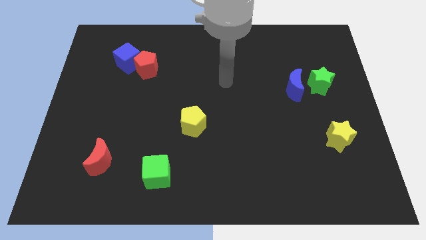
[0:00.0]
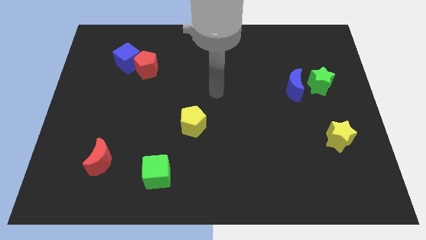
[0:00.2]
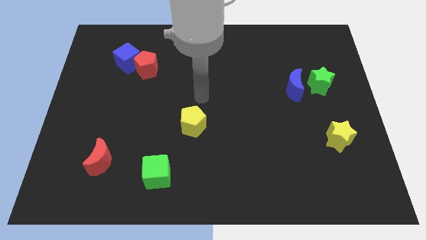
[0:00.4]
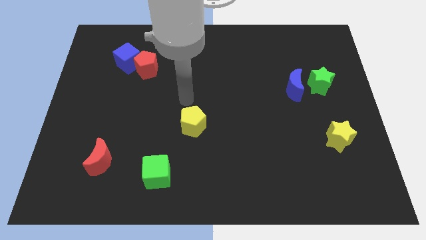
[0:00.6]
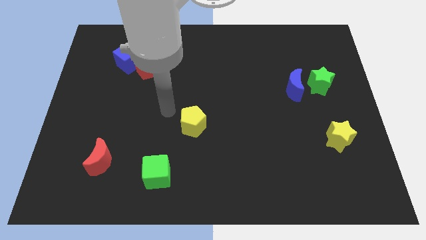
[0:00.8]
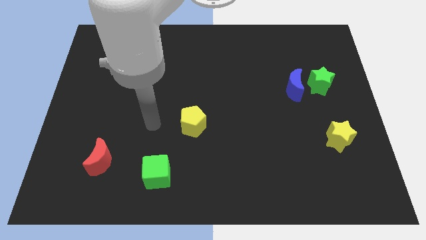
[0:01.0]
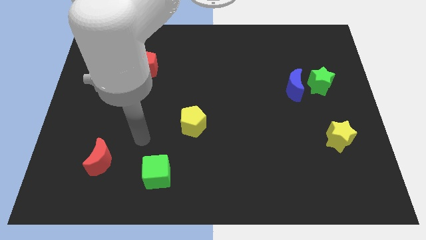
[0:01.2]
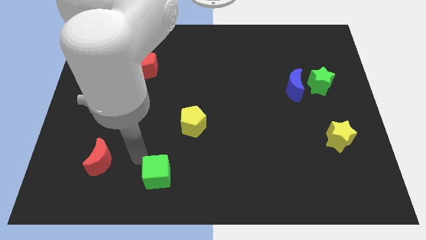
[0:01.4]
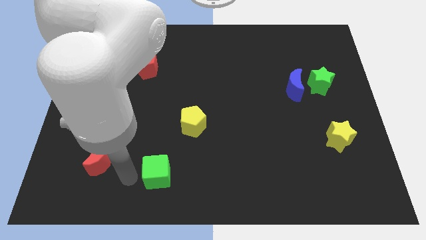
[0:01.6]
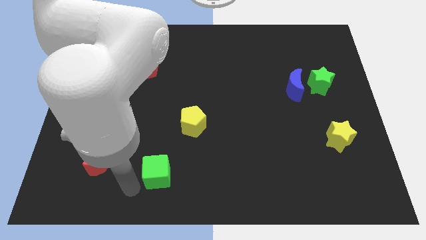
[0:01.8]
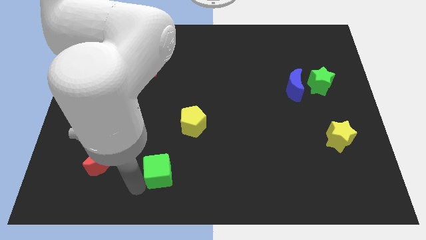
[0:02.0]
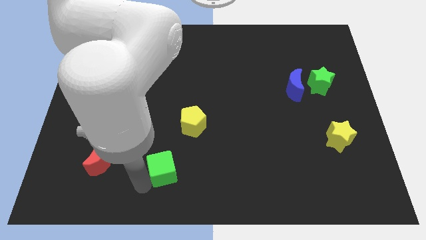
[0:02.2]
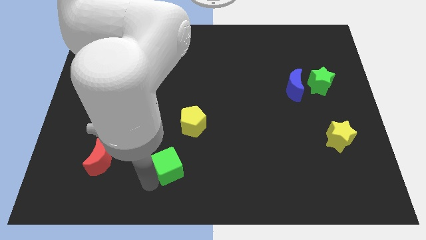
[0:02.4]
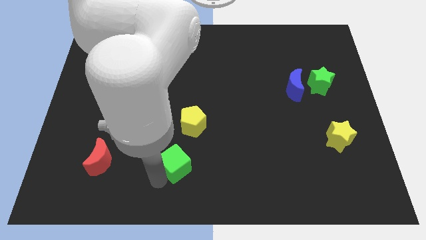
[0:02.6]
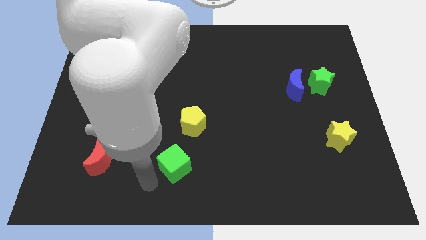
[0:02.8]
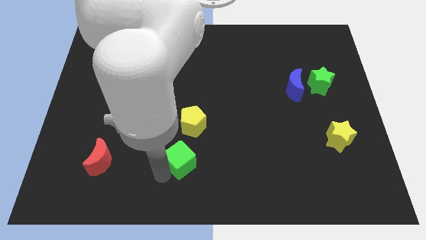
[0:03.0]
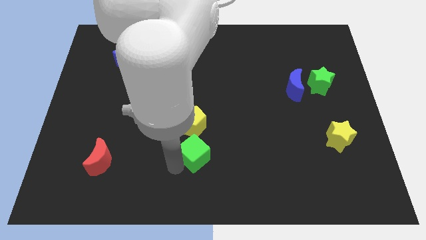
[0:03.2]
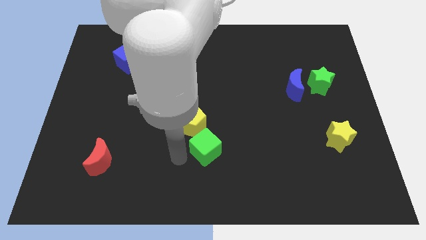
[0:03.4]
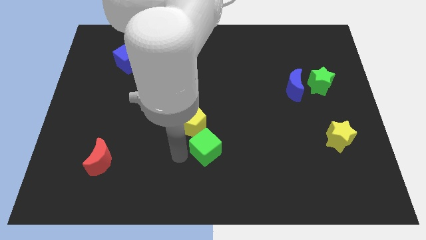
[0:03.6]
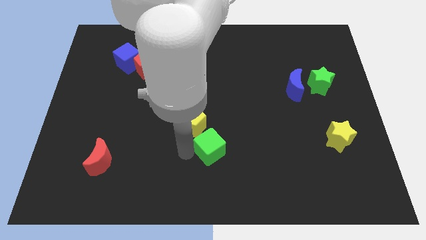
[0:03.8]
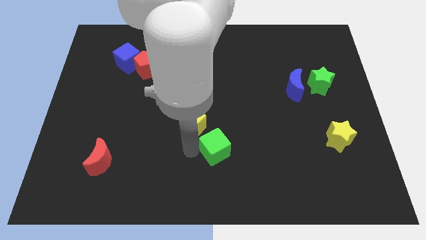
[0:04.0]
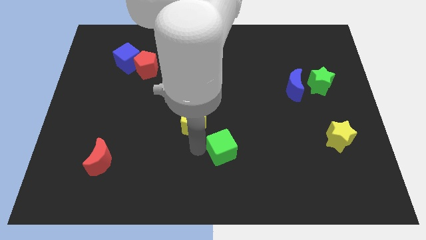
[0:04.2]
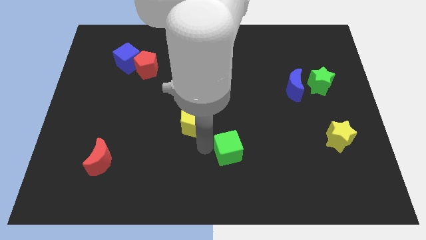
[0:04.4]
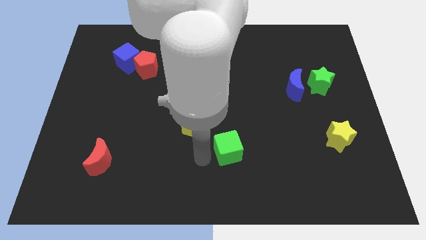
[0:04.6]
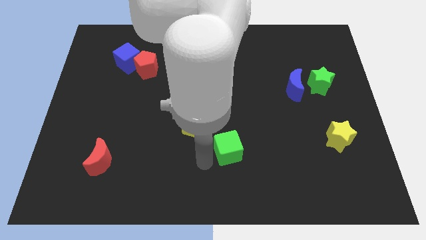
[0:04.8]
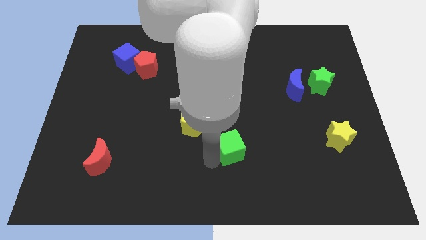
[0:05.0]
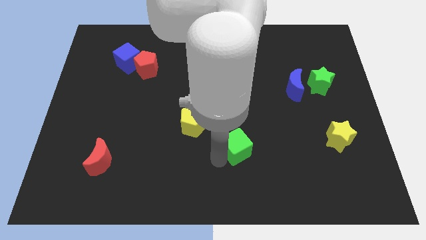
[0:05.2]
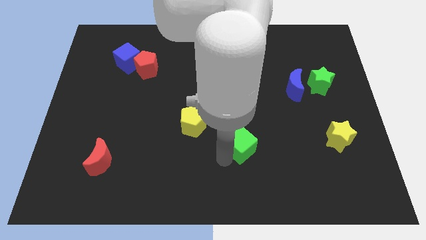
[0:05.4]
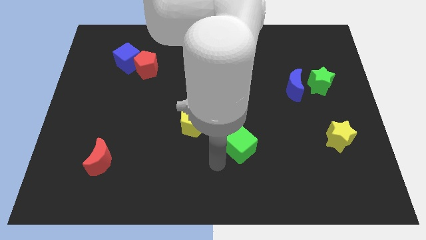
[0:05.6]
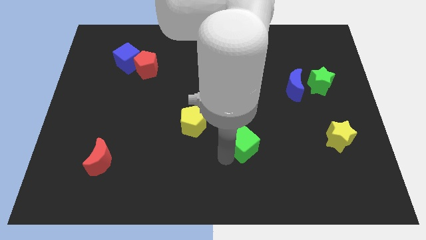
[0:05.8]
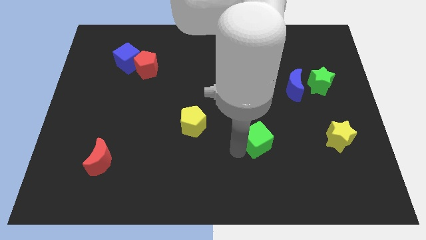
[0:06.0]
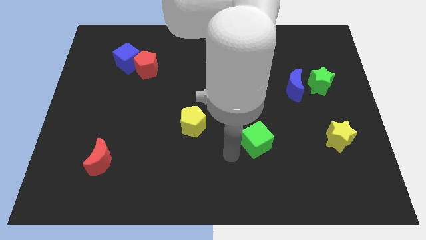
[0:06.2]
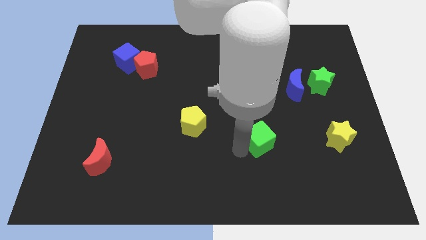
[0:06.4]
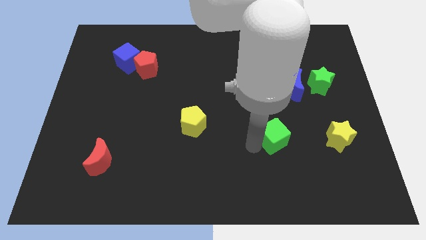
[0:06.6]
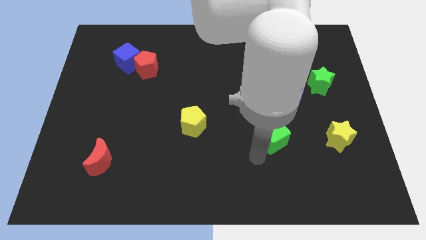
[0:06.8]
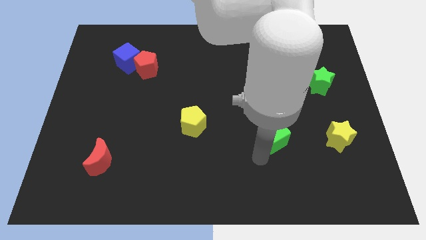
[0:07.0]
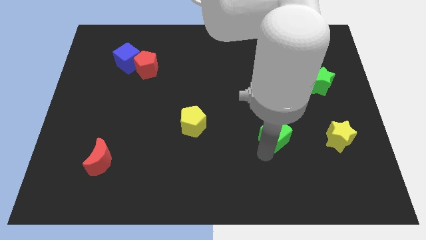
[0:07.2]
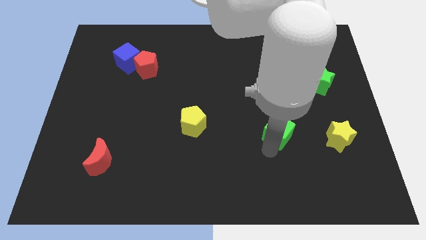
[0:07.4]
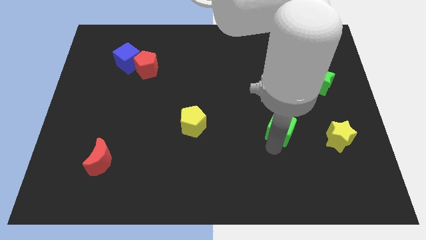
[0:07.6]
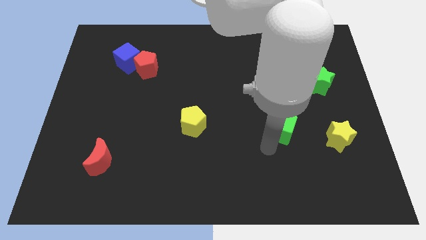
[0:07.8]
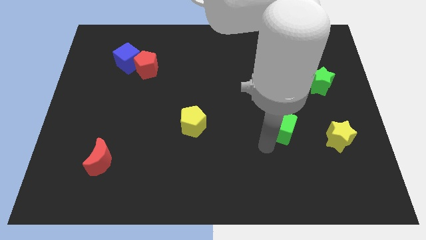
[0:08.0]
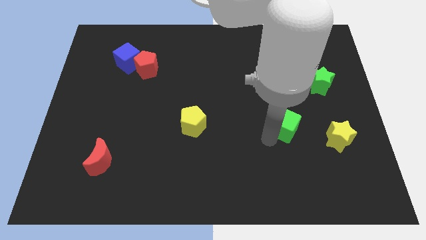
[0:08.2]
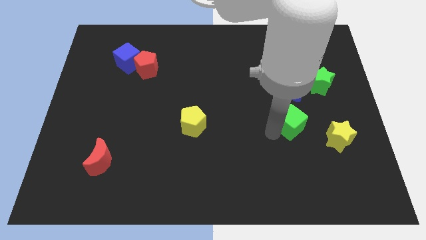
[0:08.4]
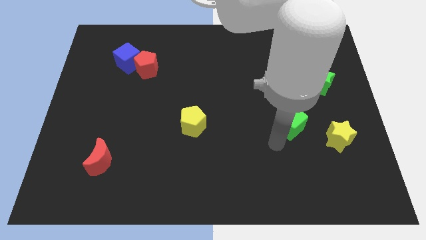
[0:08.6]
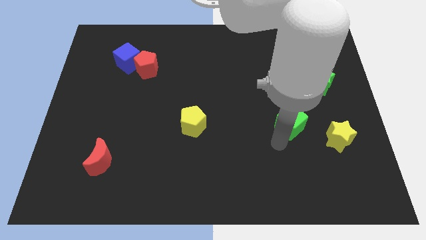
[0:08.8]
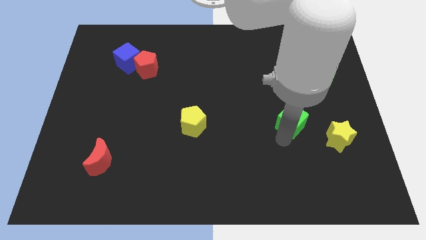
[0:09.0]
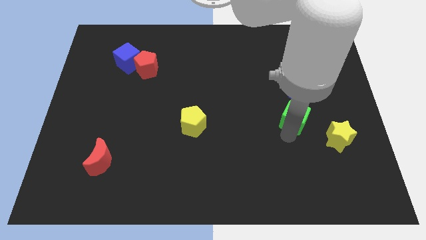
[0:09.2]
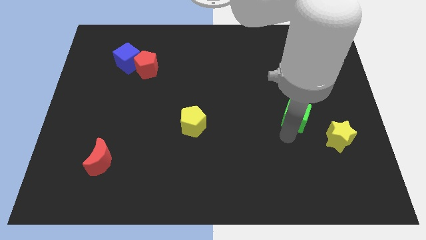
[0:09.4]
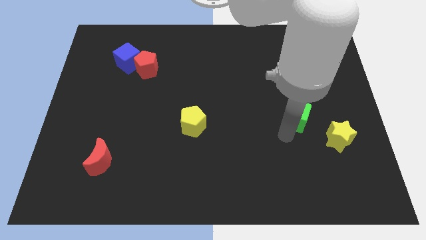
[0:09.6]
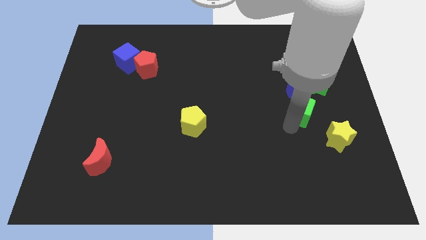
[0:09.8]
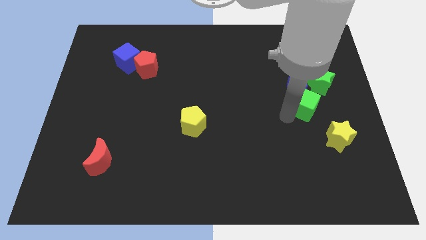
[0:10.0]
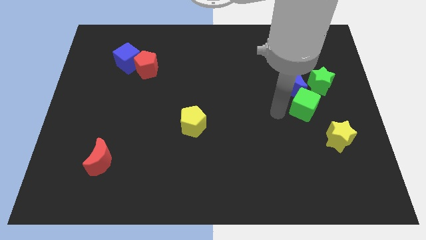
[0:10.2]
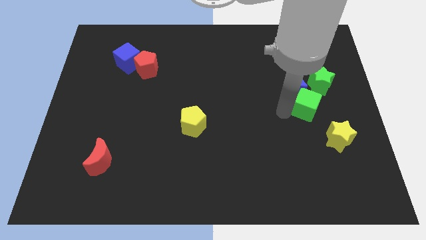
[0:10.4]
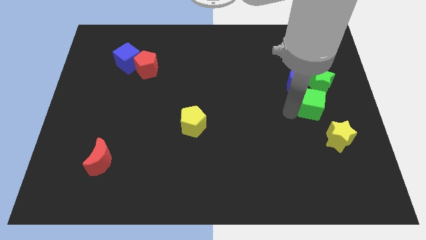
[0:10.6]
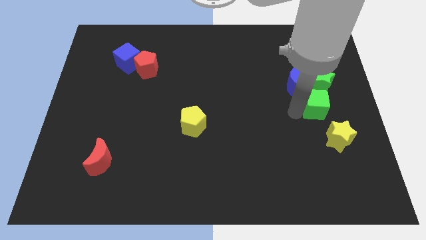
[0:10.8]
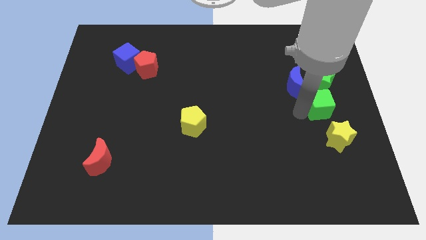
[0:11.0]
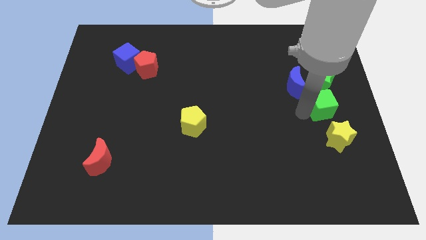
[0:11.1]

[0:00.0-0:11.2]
slide the green cube to the center right
